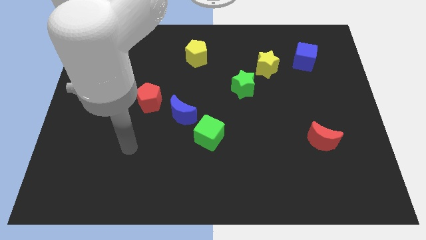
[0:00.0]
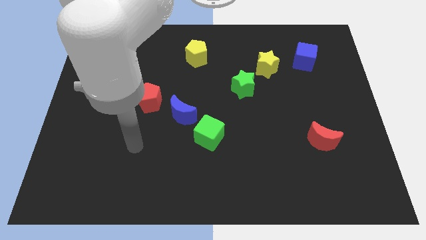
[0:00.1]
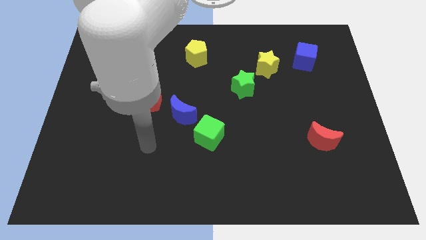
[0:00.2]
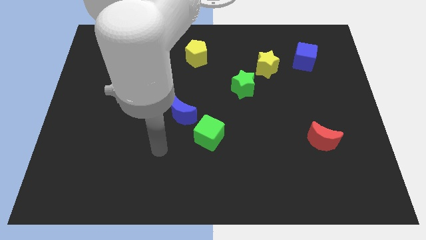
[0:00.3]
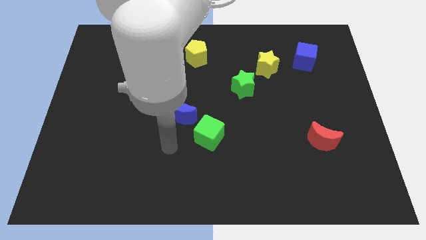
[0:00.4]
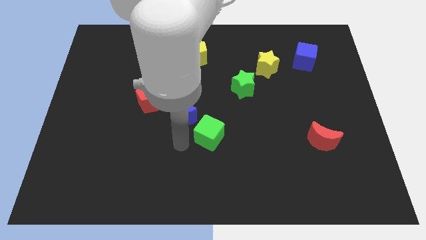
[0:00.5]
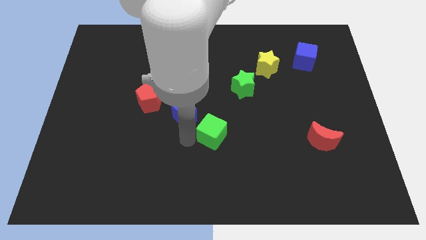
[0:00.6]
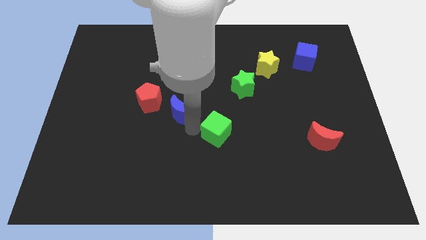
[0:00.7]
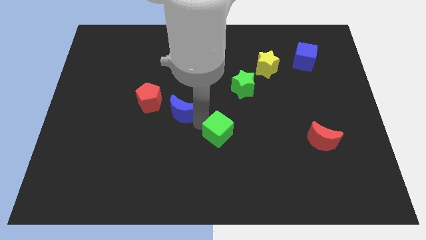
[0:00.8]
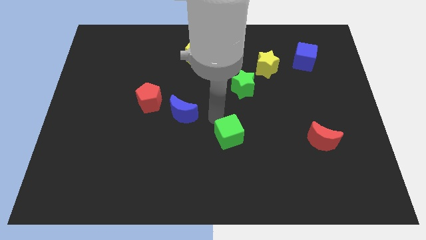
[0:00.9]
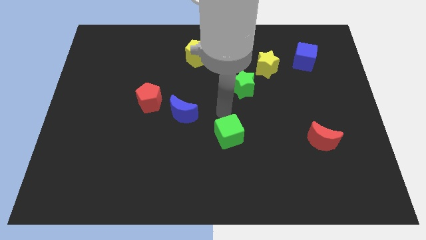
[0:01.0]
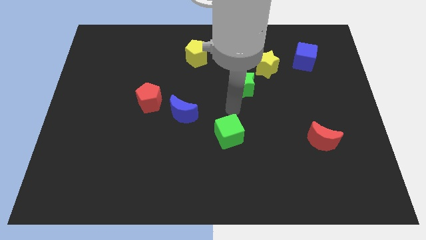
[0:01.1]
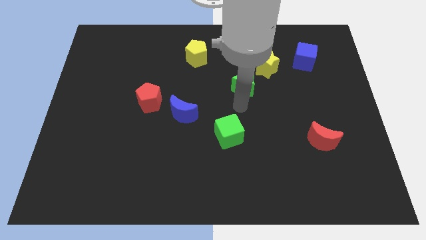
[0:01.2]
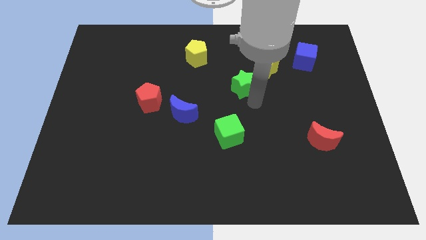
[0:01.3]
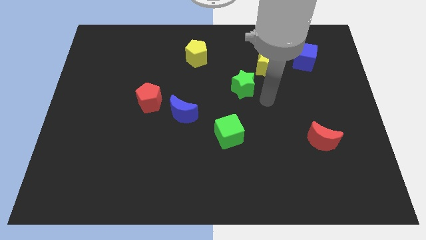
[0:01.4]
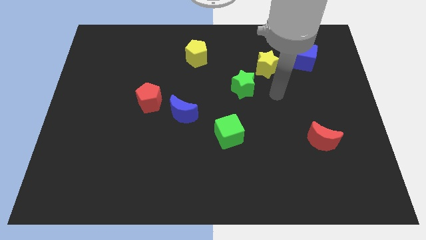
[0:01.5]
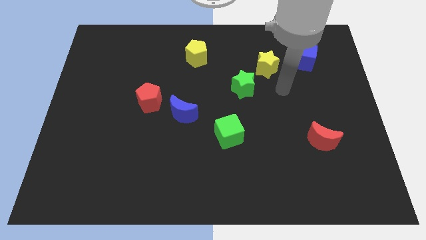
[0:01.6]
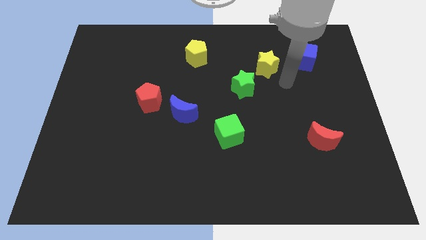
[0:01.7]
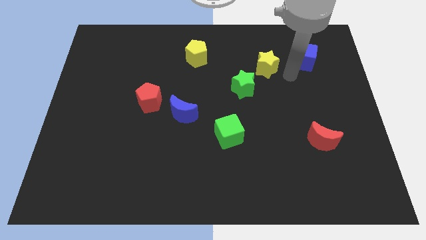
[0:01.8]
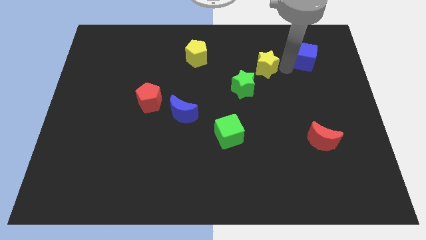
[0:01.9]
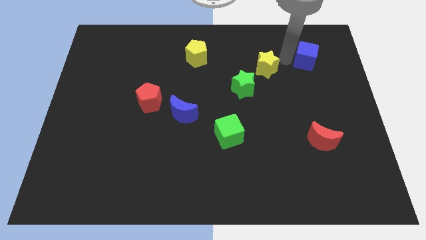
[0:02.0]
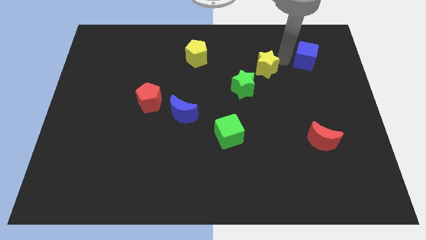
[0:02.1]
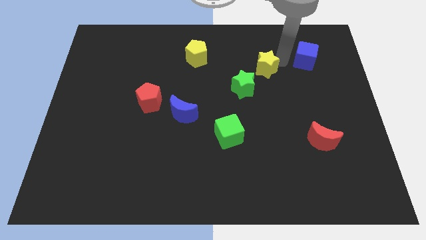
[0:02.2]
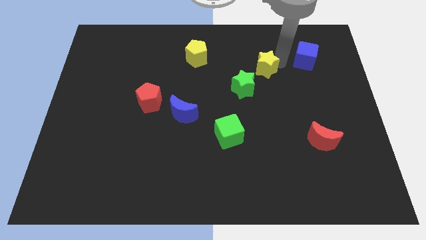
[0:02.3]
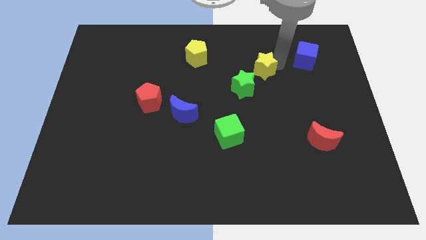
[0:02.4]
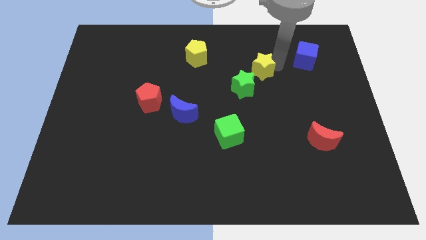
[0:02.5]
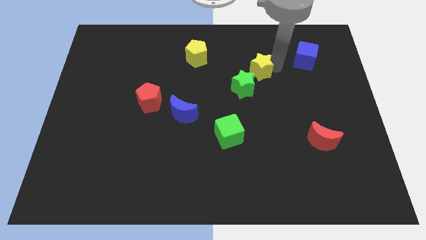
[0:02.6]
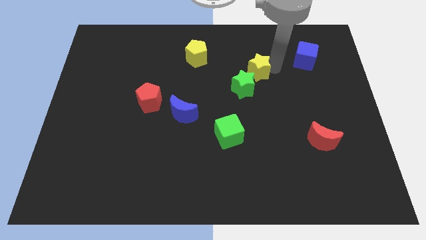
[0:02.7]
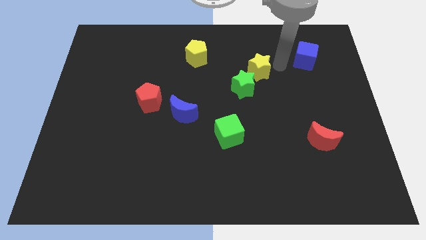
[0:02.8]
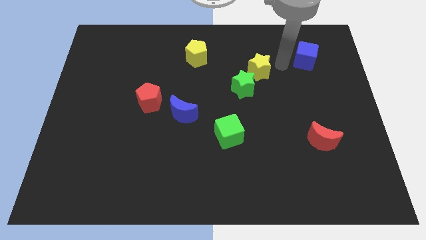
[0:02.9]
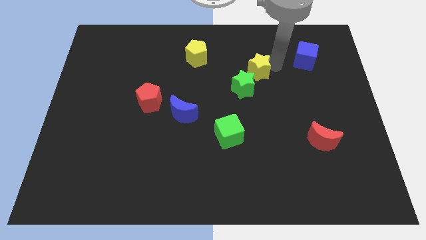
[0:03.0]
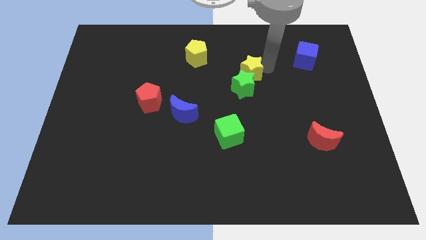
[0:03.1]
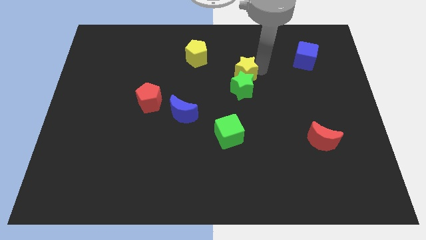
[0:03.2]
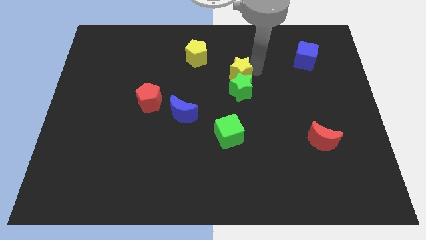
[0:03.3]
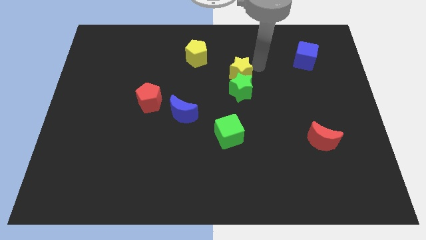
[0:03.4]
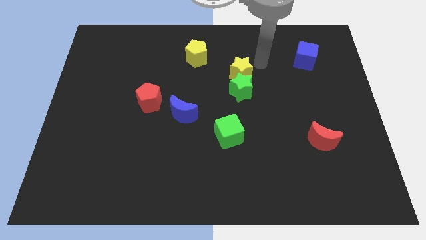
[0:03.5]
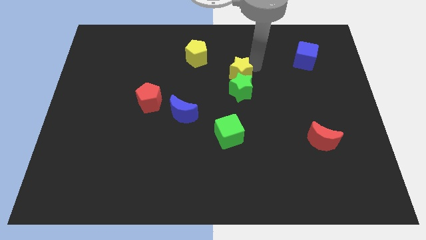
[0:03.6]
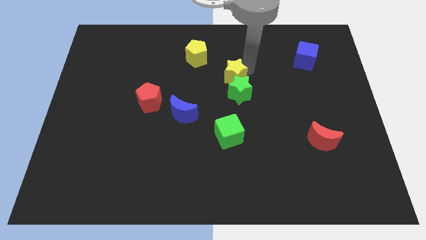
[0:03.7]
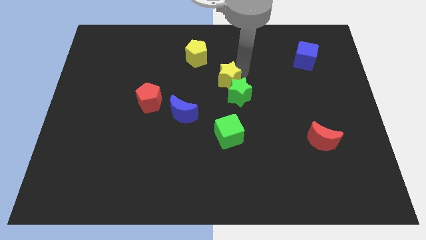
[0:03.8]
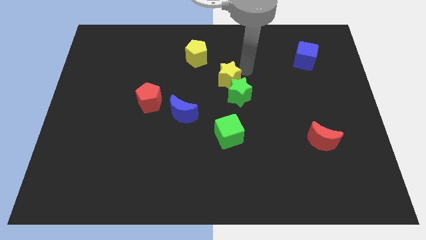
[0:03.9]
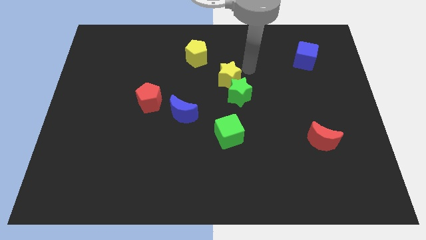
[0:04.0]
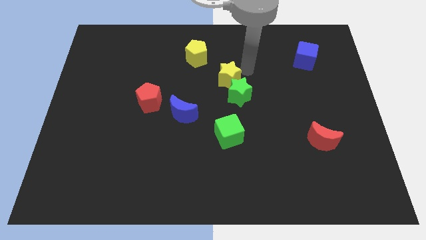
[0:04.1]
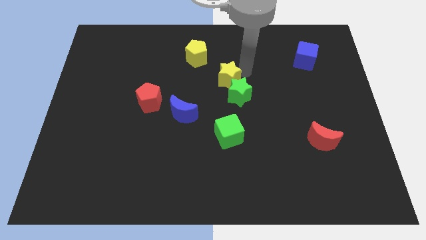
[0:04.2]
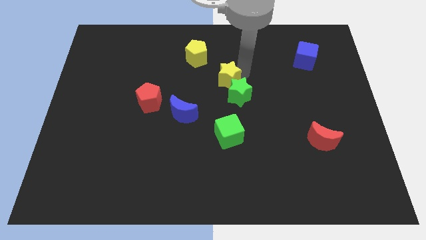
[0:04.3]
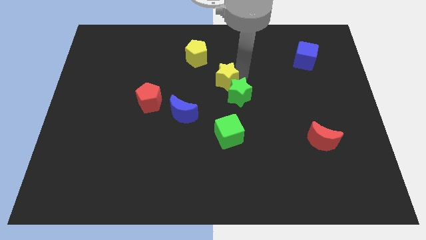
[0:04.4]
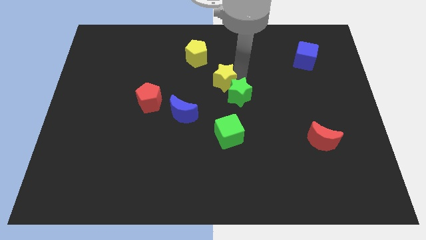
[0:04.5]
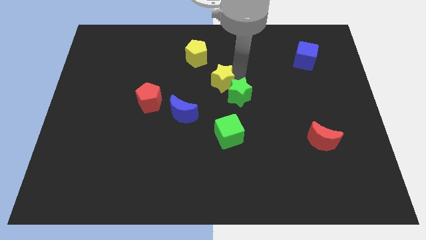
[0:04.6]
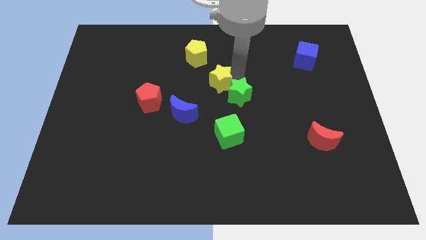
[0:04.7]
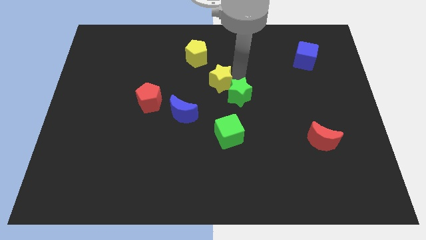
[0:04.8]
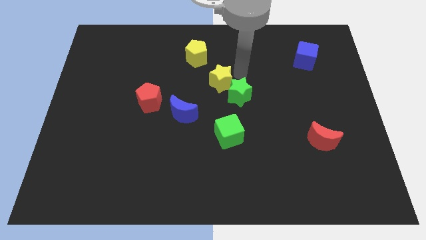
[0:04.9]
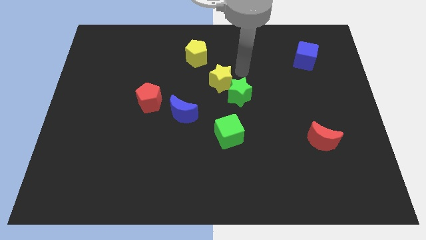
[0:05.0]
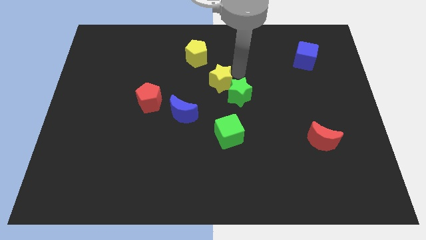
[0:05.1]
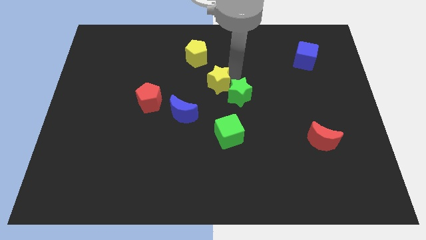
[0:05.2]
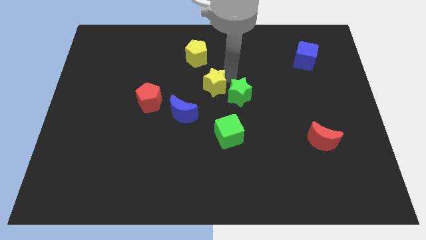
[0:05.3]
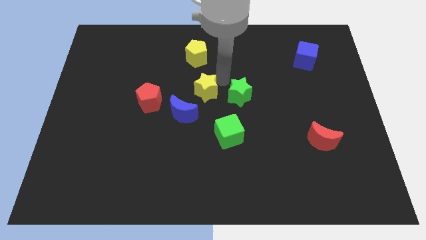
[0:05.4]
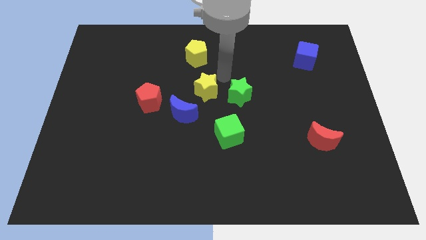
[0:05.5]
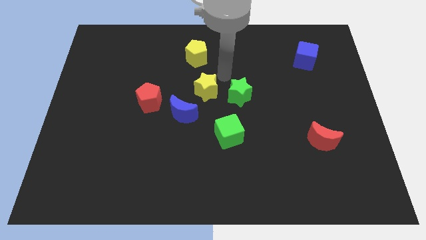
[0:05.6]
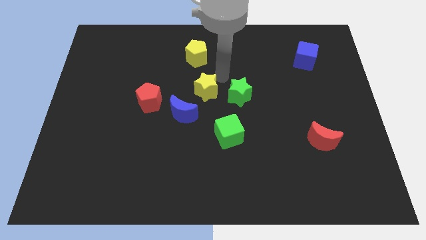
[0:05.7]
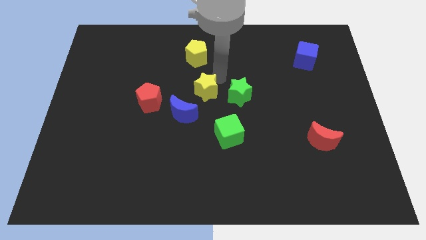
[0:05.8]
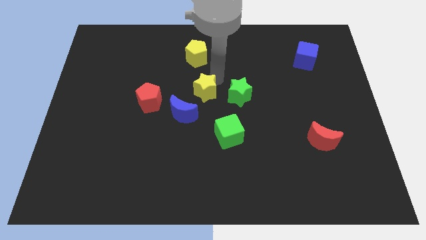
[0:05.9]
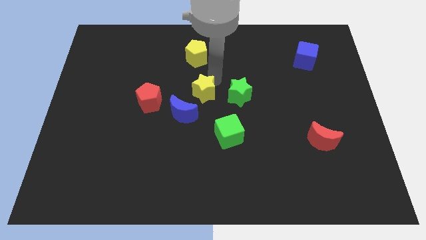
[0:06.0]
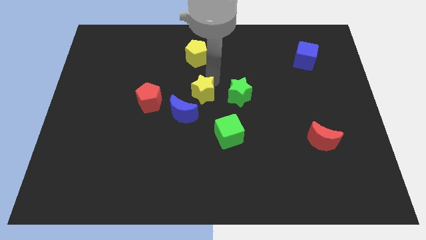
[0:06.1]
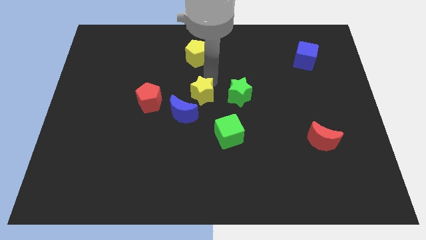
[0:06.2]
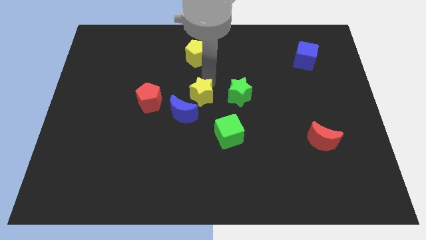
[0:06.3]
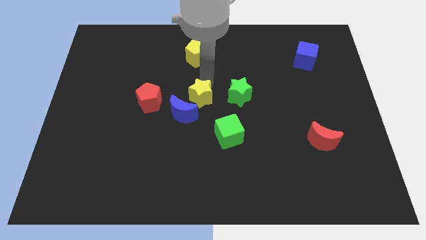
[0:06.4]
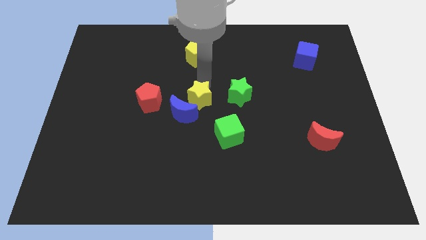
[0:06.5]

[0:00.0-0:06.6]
push the yellow star next to the blue moon

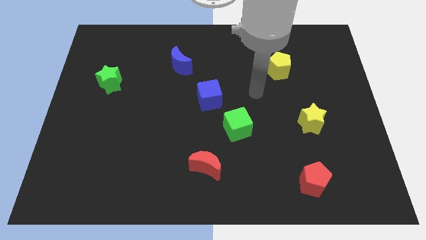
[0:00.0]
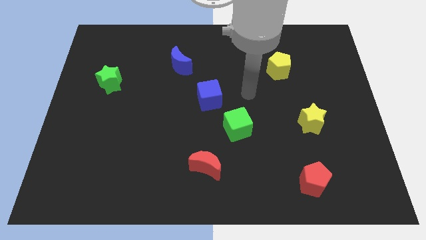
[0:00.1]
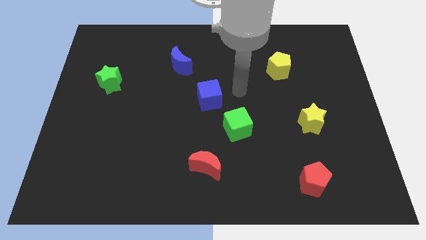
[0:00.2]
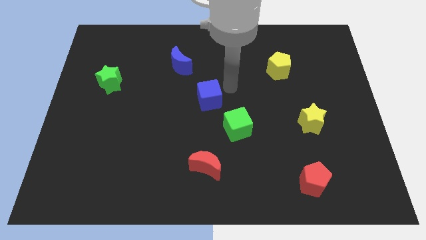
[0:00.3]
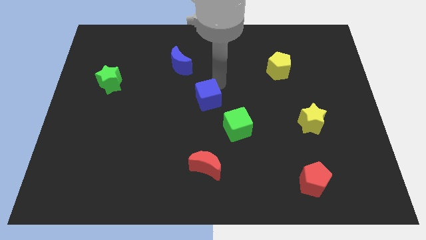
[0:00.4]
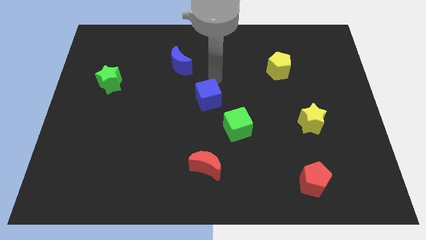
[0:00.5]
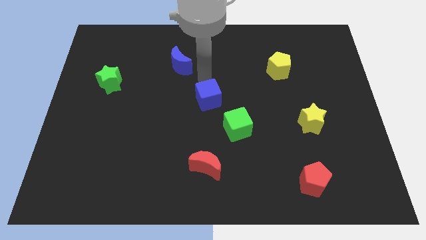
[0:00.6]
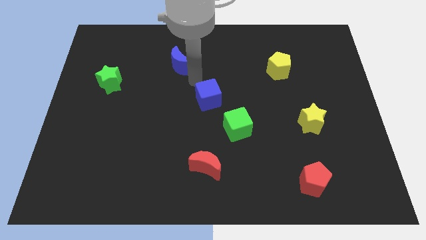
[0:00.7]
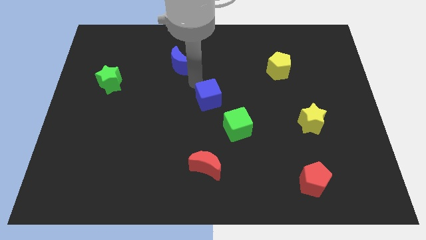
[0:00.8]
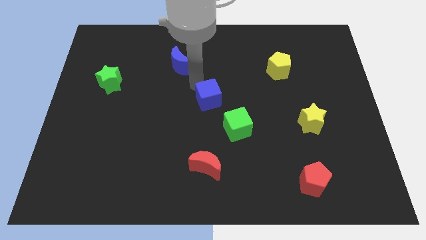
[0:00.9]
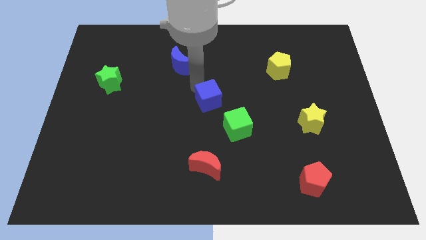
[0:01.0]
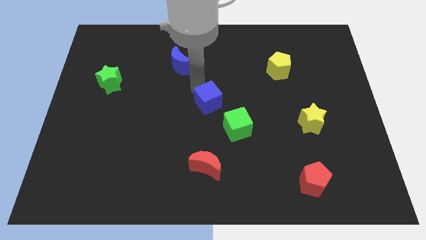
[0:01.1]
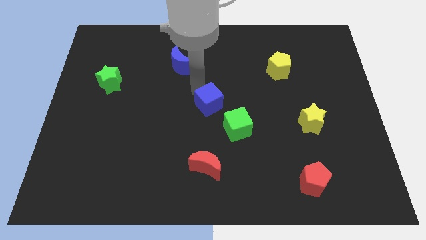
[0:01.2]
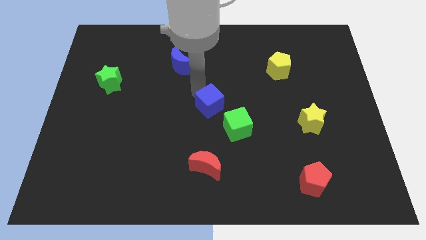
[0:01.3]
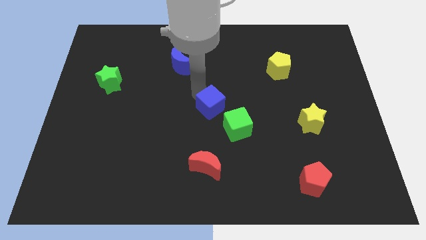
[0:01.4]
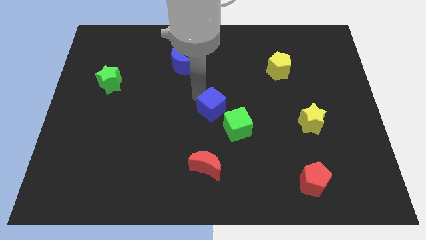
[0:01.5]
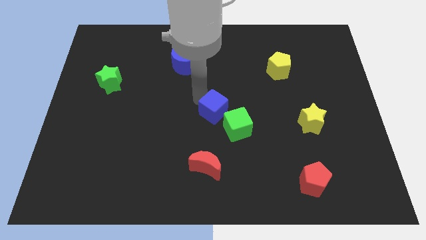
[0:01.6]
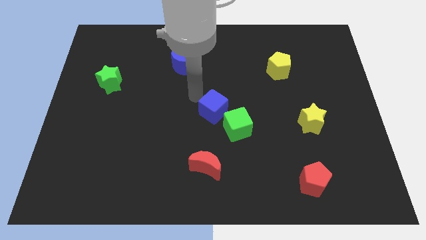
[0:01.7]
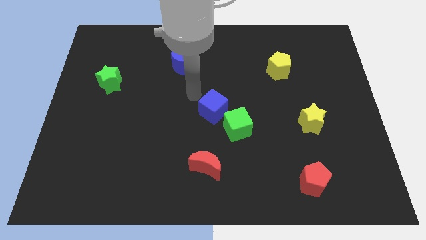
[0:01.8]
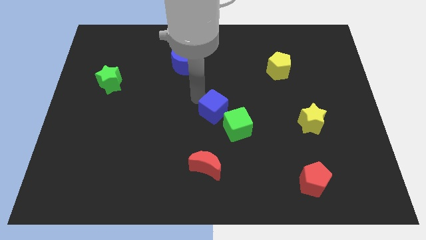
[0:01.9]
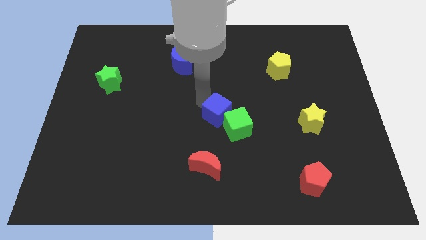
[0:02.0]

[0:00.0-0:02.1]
put the blue cube close to the green cube
